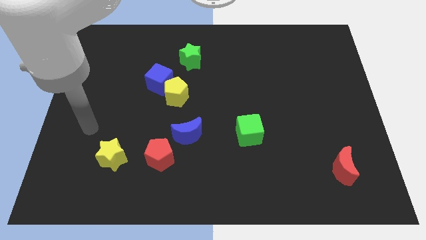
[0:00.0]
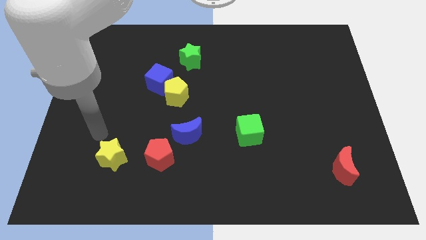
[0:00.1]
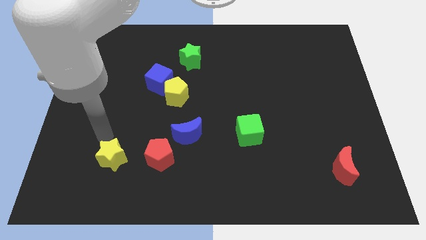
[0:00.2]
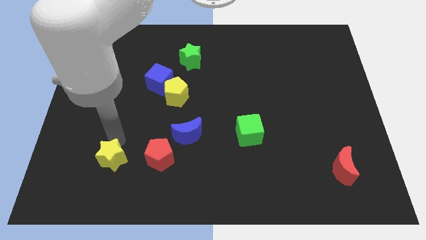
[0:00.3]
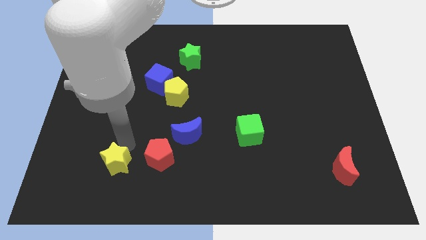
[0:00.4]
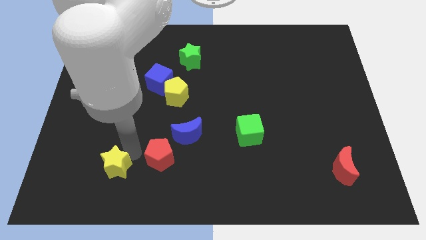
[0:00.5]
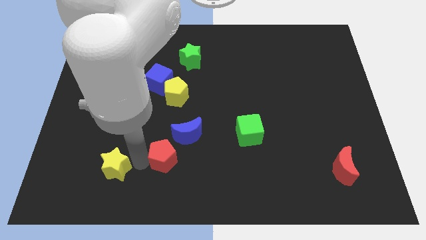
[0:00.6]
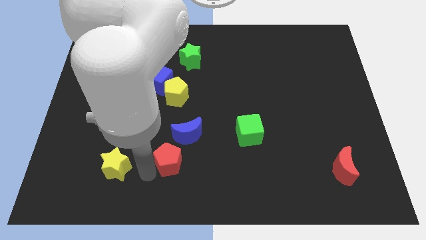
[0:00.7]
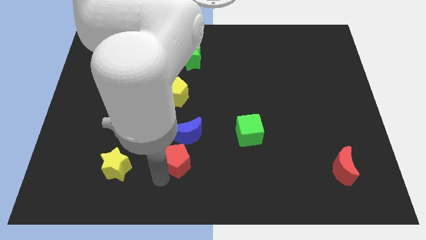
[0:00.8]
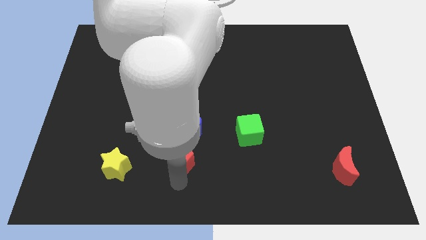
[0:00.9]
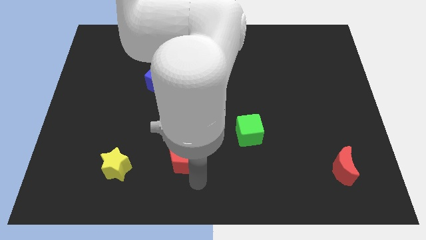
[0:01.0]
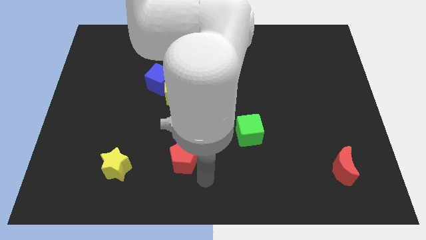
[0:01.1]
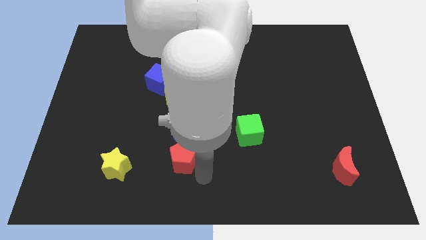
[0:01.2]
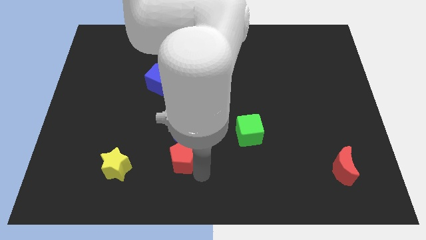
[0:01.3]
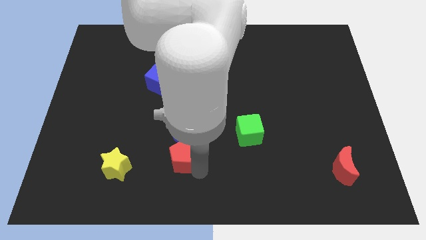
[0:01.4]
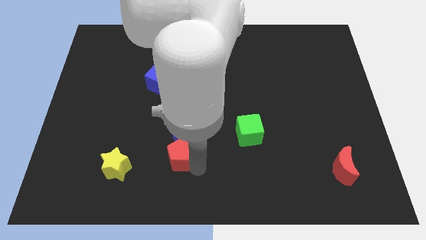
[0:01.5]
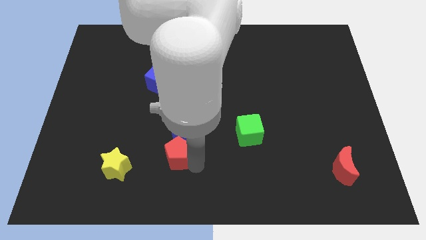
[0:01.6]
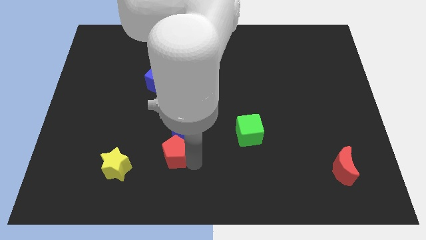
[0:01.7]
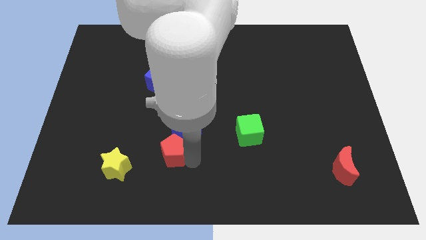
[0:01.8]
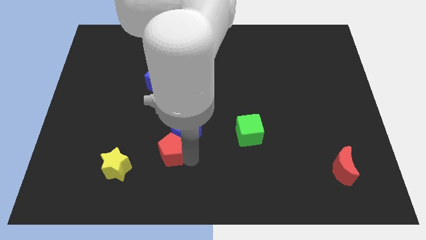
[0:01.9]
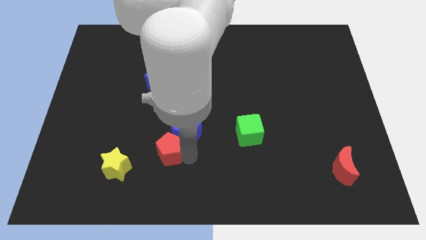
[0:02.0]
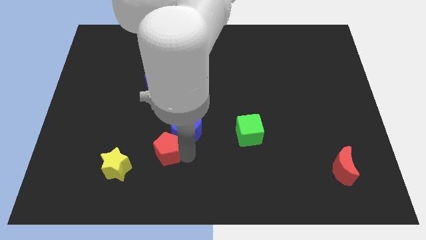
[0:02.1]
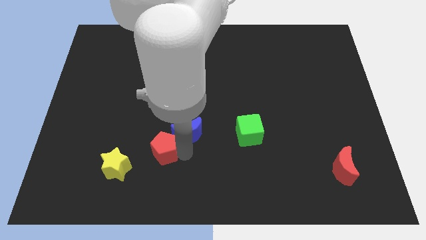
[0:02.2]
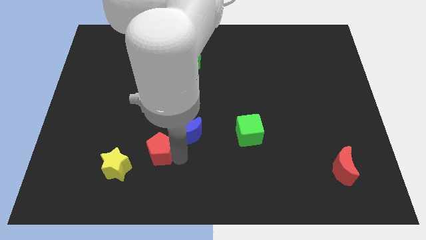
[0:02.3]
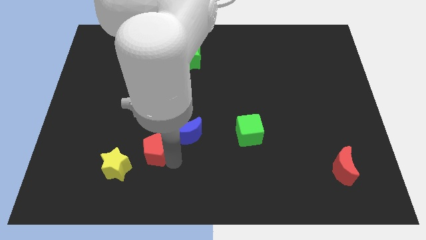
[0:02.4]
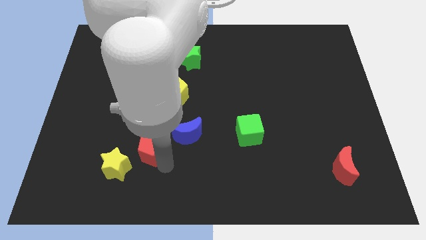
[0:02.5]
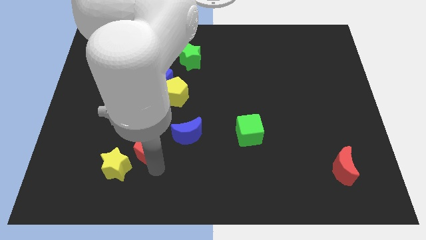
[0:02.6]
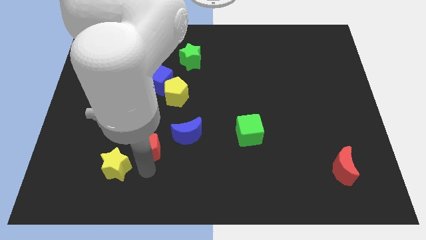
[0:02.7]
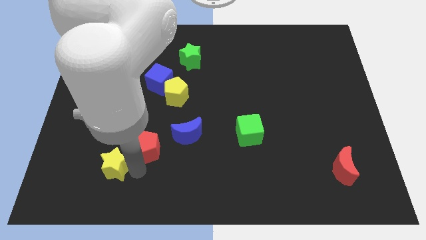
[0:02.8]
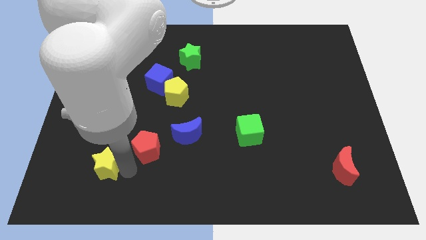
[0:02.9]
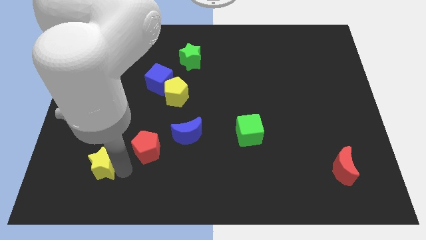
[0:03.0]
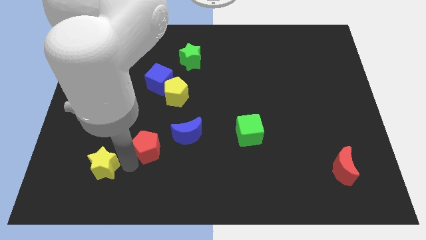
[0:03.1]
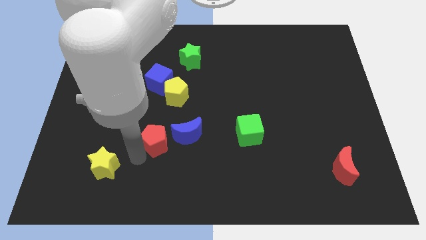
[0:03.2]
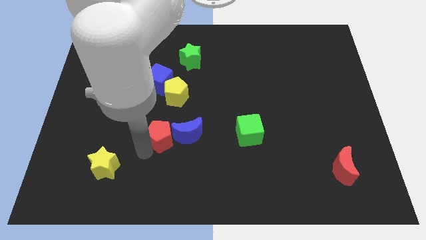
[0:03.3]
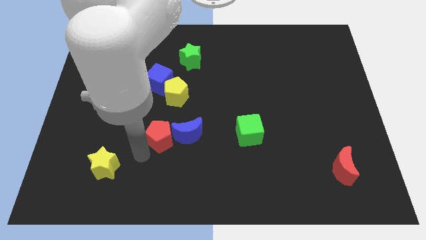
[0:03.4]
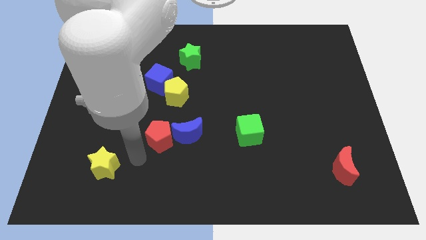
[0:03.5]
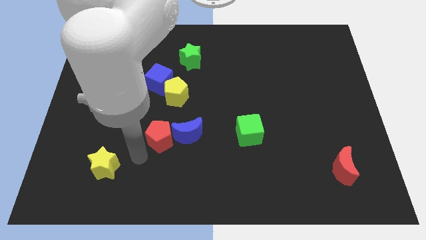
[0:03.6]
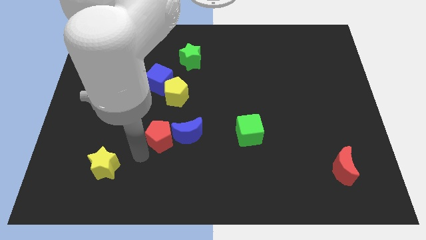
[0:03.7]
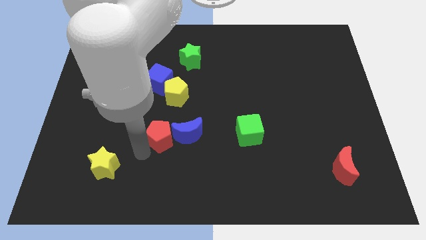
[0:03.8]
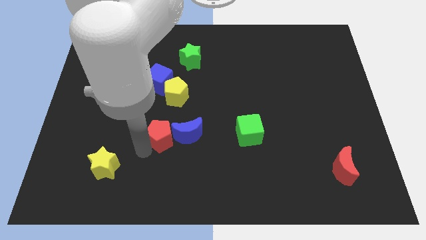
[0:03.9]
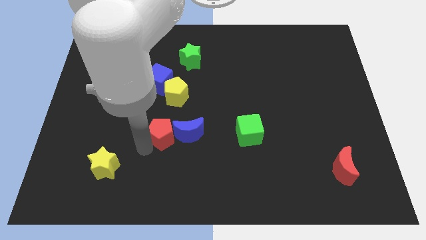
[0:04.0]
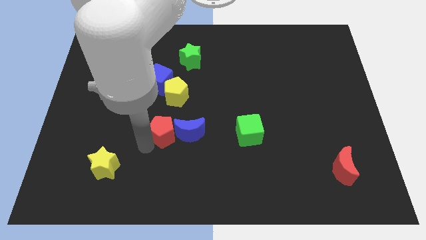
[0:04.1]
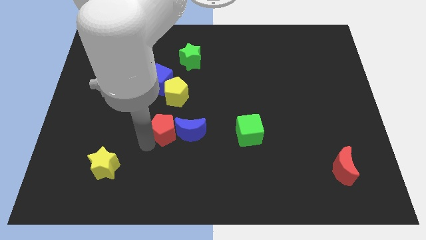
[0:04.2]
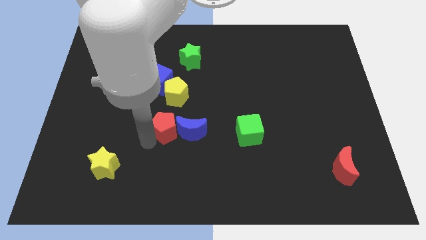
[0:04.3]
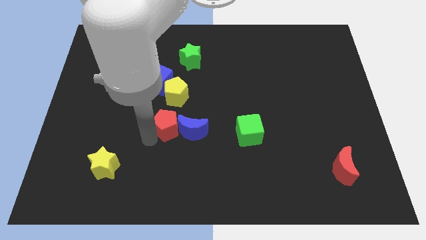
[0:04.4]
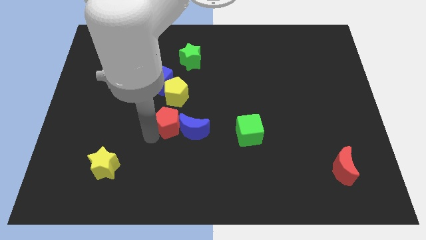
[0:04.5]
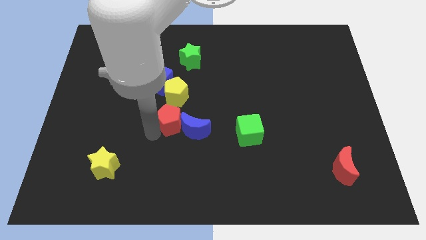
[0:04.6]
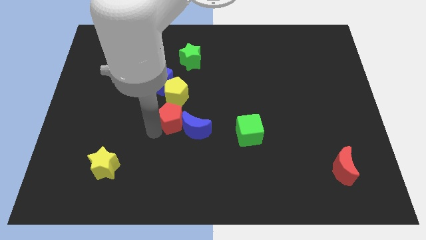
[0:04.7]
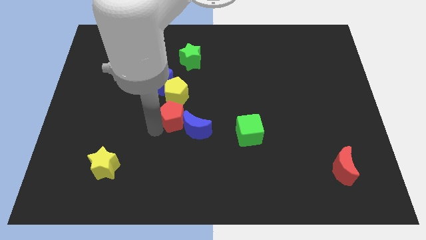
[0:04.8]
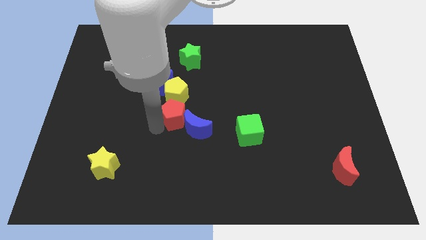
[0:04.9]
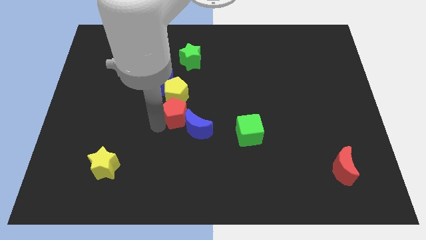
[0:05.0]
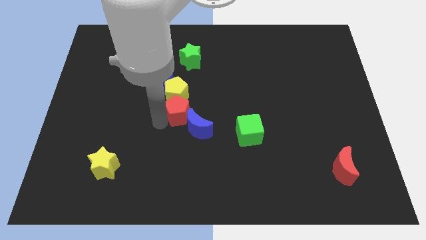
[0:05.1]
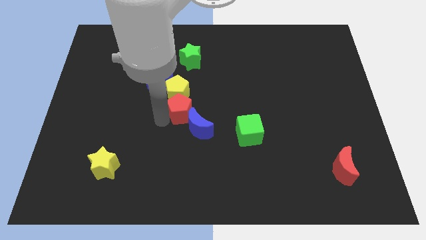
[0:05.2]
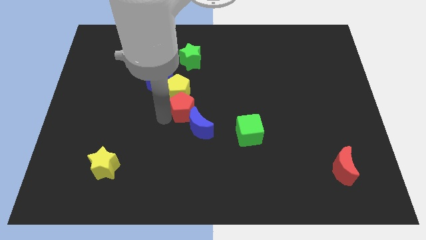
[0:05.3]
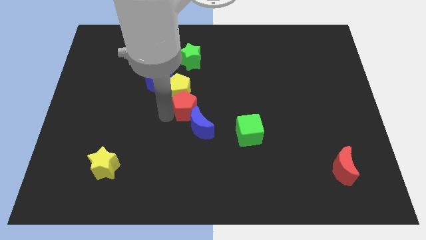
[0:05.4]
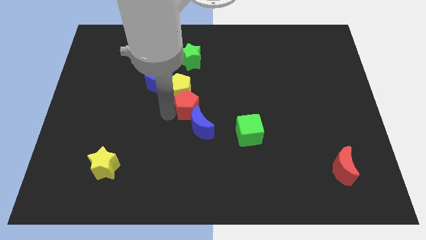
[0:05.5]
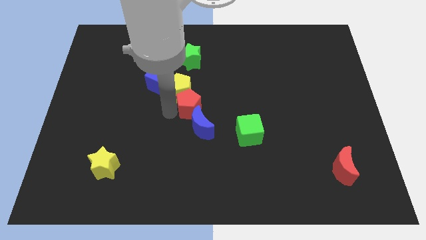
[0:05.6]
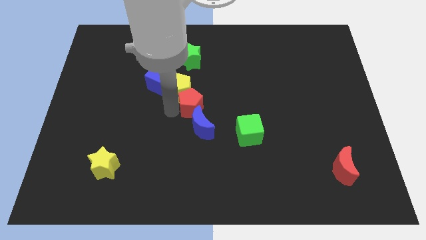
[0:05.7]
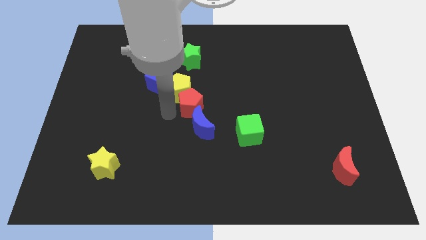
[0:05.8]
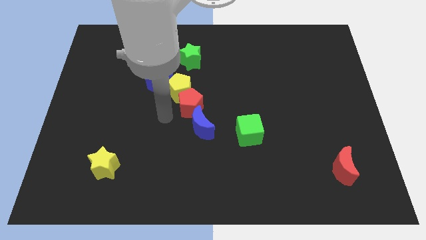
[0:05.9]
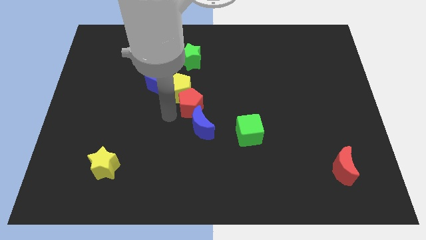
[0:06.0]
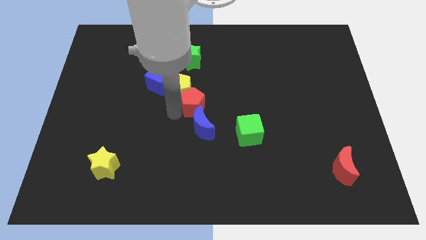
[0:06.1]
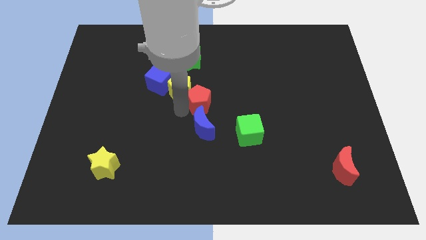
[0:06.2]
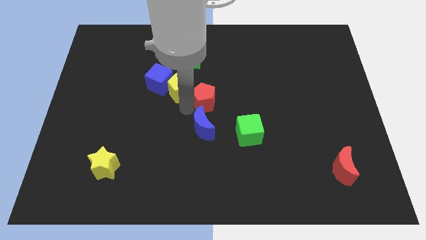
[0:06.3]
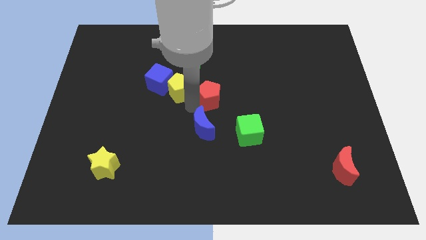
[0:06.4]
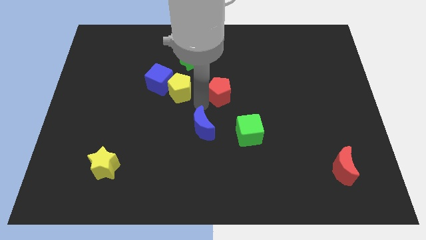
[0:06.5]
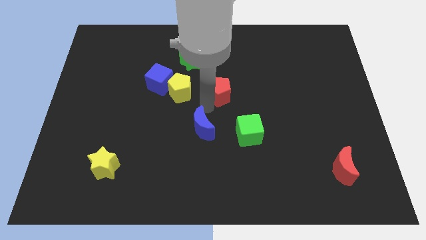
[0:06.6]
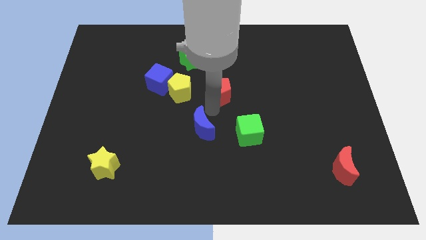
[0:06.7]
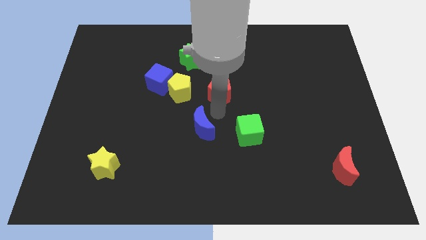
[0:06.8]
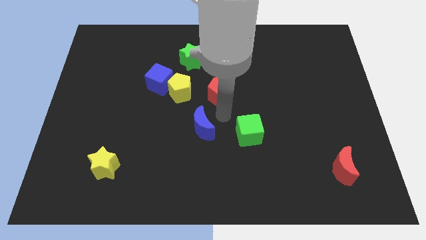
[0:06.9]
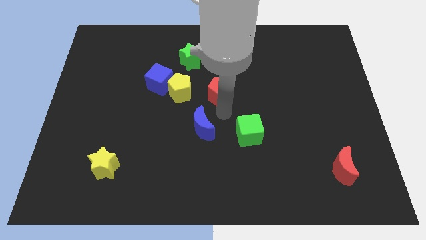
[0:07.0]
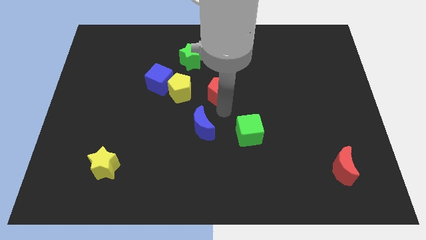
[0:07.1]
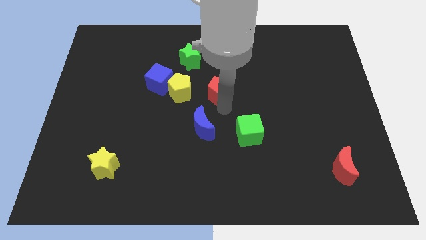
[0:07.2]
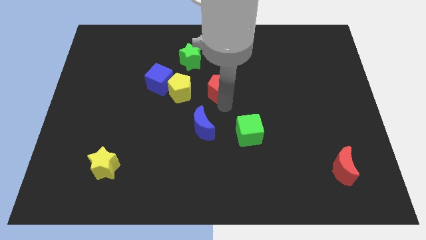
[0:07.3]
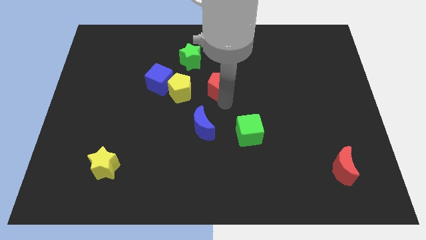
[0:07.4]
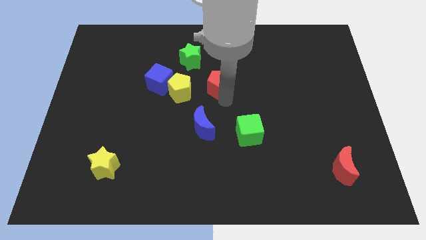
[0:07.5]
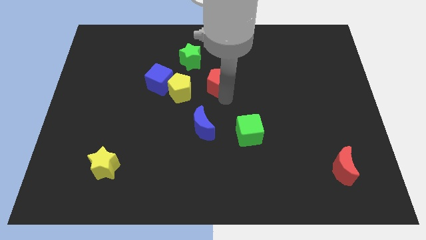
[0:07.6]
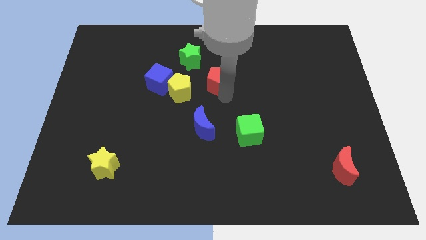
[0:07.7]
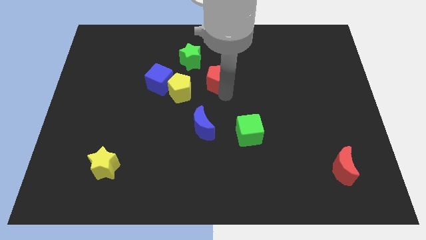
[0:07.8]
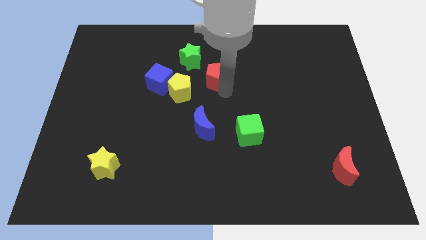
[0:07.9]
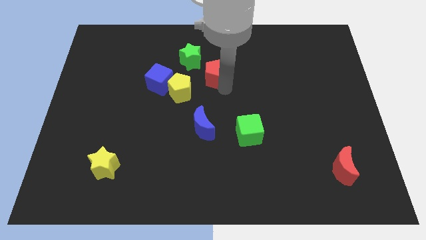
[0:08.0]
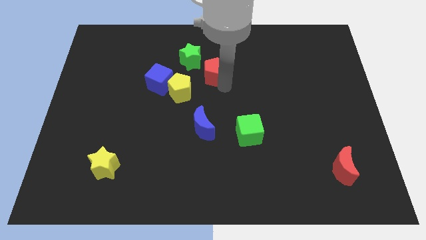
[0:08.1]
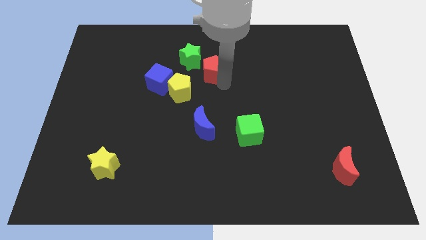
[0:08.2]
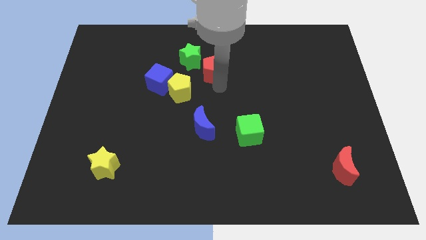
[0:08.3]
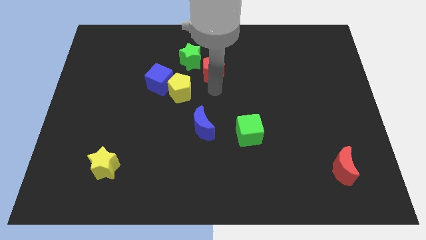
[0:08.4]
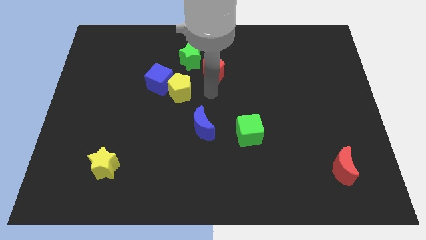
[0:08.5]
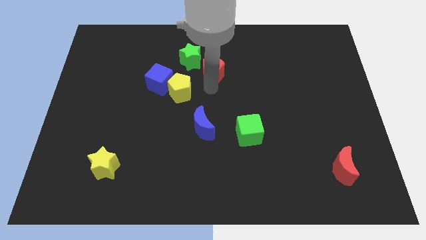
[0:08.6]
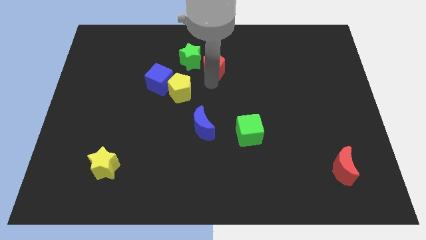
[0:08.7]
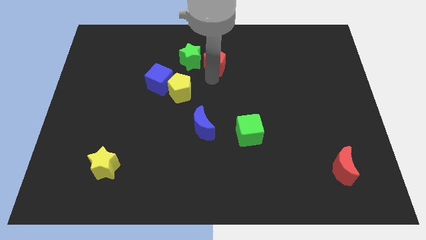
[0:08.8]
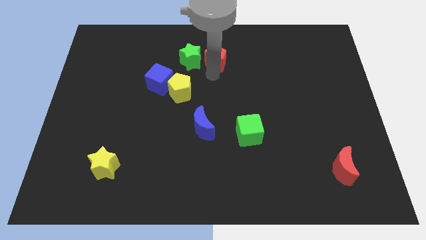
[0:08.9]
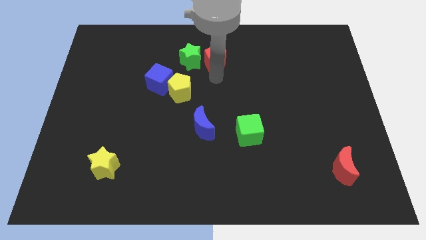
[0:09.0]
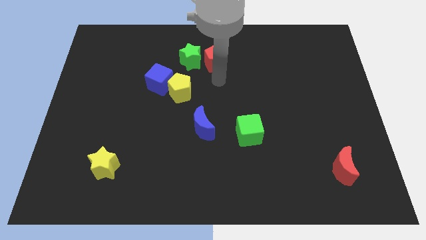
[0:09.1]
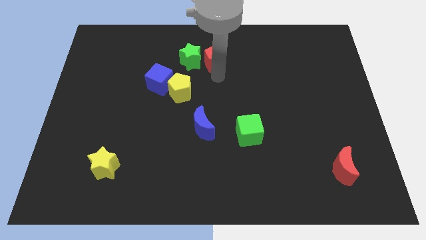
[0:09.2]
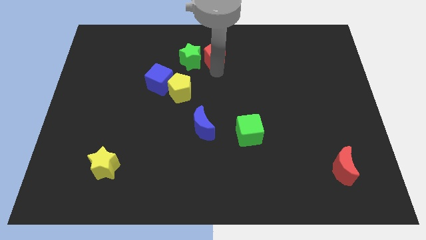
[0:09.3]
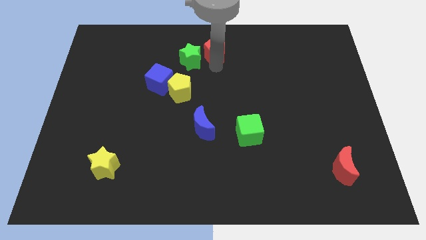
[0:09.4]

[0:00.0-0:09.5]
slide the red pentagon to the towards your base
